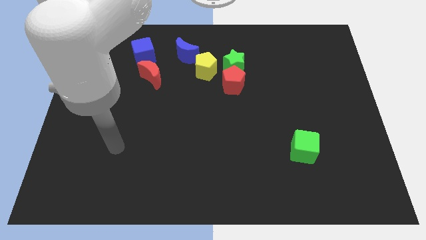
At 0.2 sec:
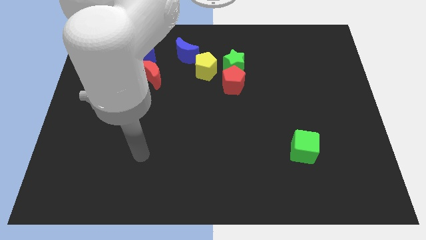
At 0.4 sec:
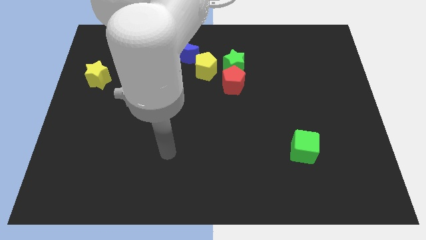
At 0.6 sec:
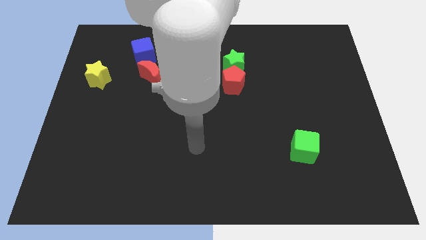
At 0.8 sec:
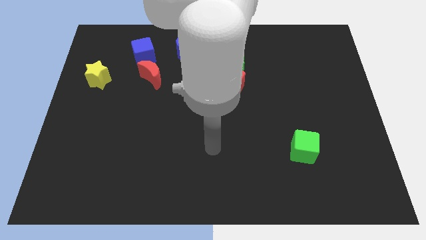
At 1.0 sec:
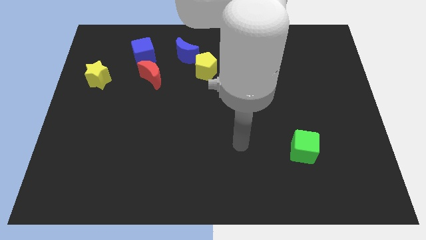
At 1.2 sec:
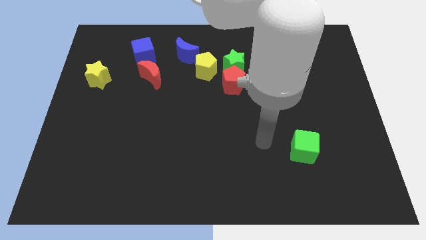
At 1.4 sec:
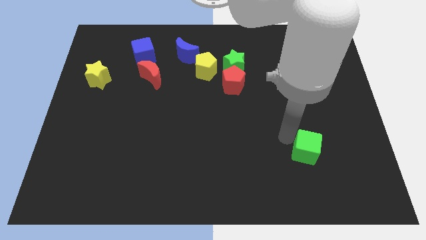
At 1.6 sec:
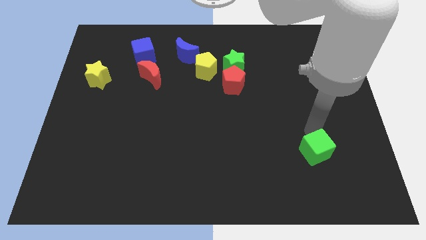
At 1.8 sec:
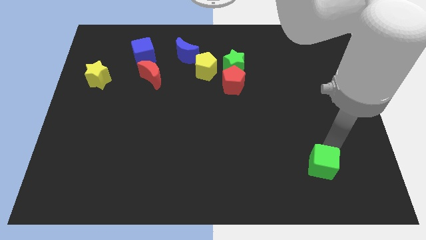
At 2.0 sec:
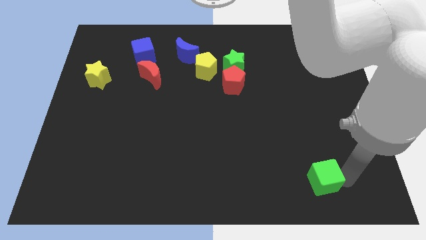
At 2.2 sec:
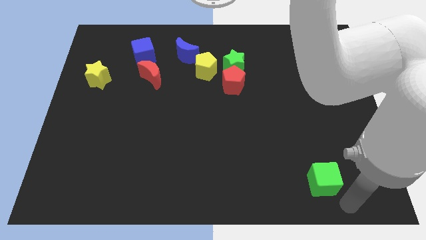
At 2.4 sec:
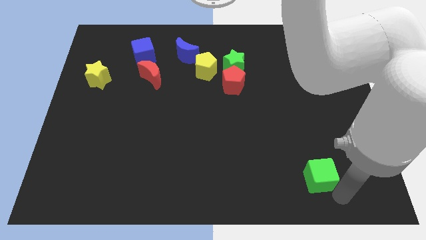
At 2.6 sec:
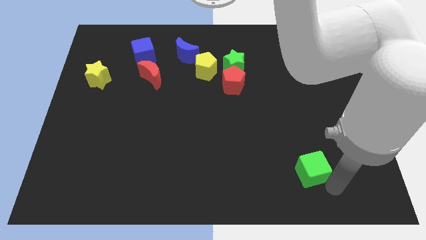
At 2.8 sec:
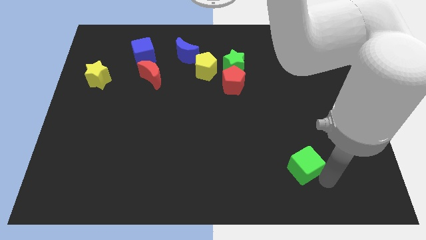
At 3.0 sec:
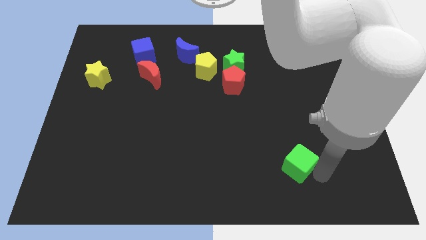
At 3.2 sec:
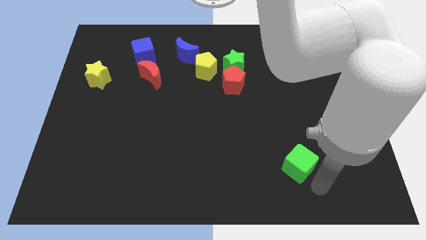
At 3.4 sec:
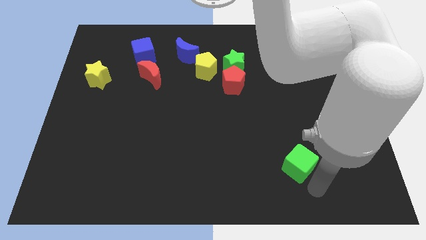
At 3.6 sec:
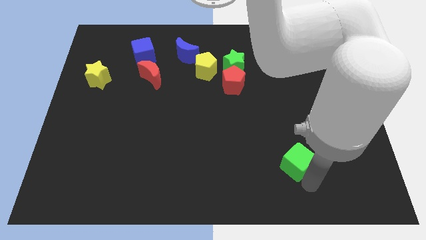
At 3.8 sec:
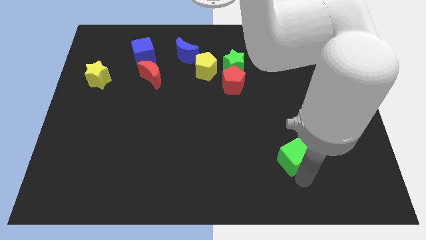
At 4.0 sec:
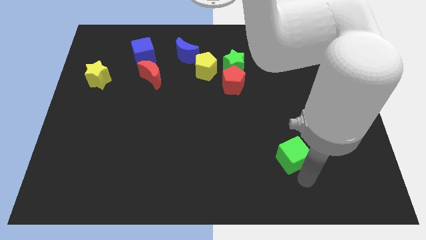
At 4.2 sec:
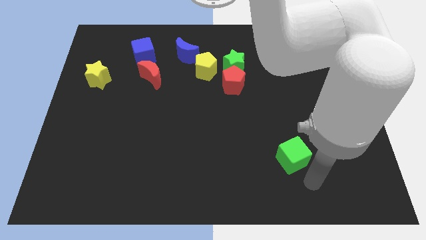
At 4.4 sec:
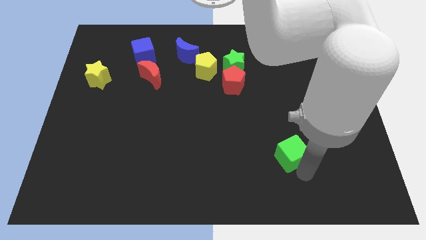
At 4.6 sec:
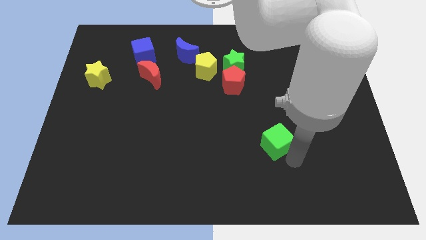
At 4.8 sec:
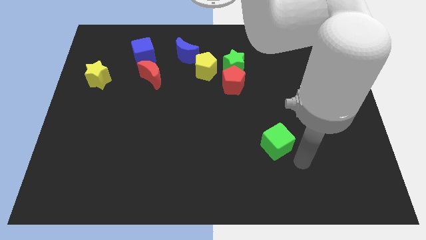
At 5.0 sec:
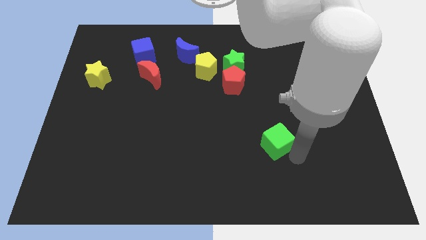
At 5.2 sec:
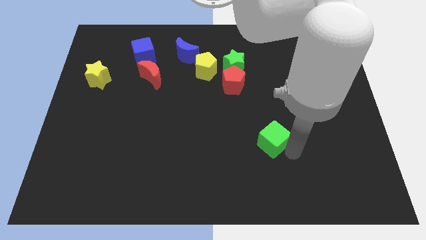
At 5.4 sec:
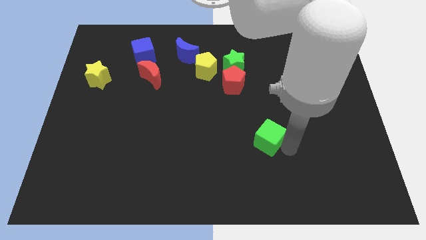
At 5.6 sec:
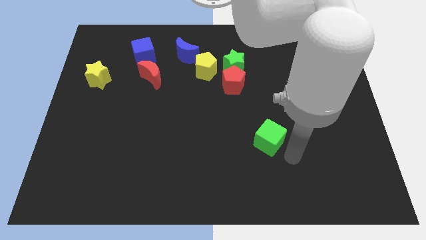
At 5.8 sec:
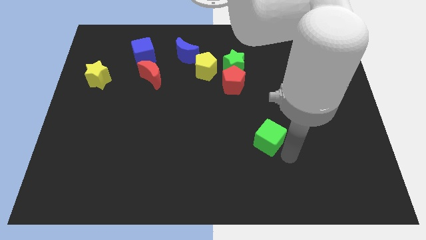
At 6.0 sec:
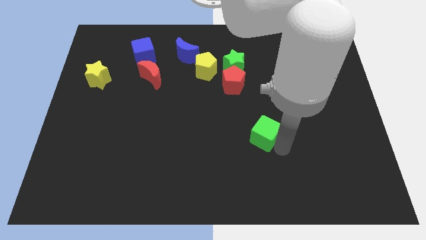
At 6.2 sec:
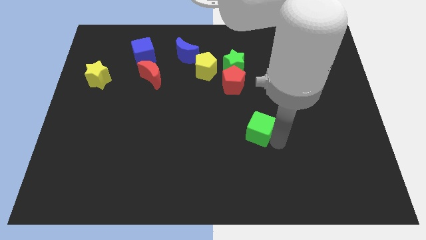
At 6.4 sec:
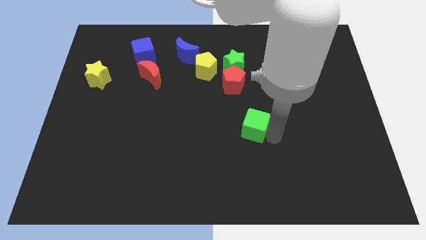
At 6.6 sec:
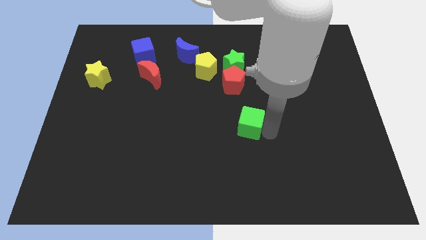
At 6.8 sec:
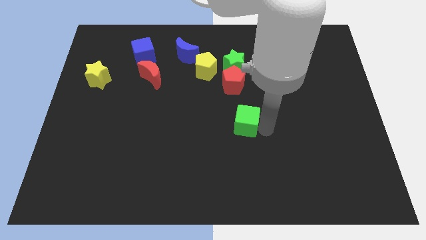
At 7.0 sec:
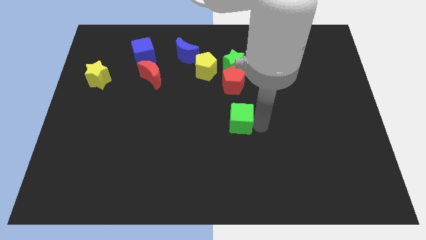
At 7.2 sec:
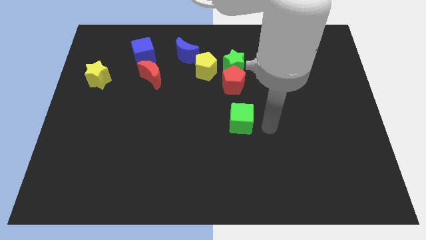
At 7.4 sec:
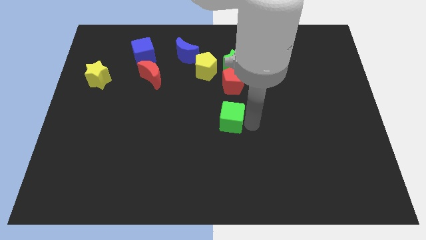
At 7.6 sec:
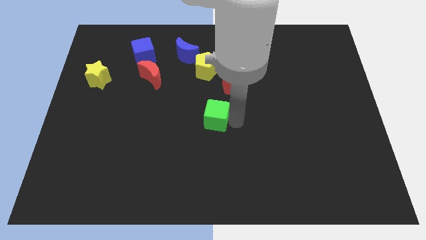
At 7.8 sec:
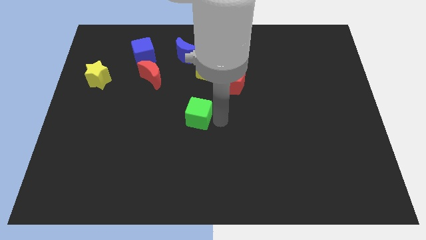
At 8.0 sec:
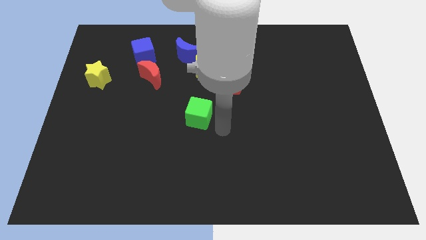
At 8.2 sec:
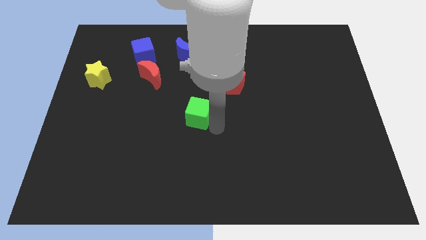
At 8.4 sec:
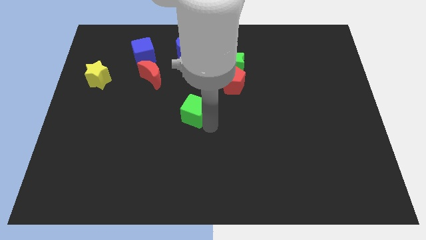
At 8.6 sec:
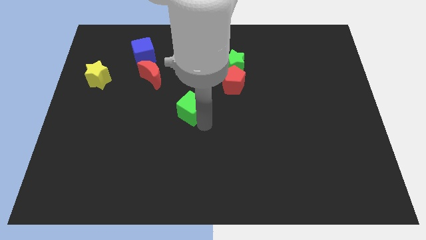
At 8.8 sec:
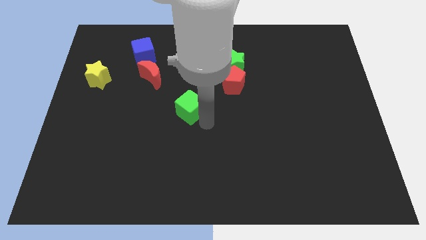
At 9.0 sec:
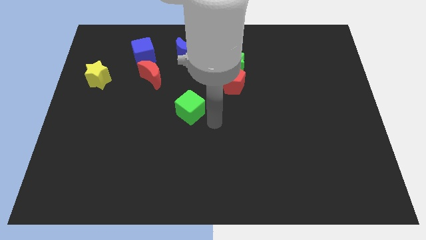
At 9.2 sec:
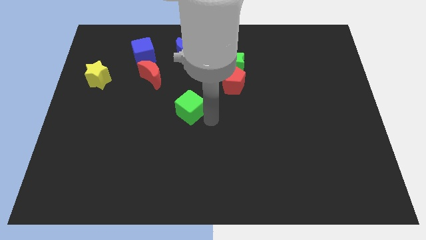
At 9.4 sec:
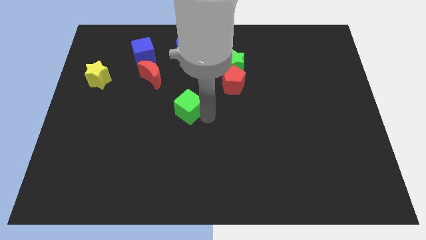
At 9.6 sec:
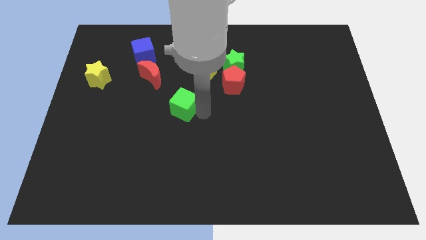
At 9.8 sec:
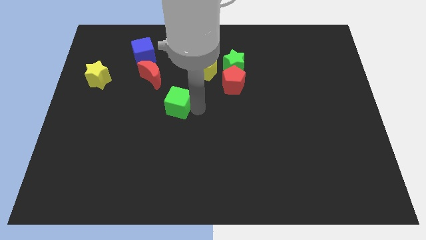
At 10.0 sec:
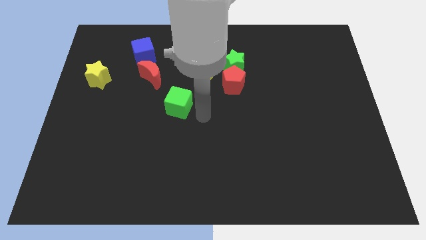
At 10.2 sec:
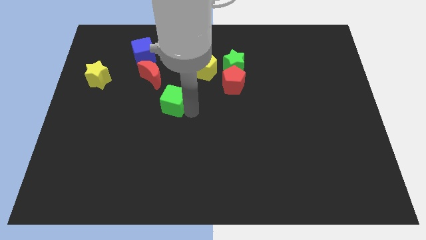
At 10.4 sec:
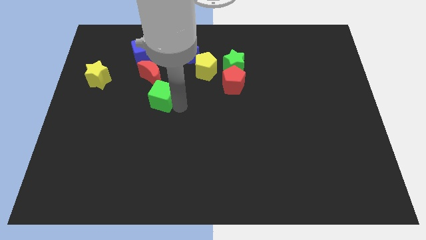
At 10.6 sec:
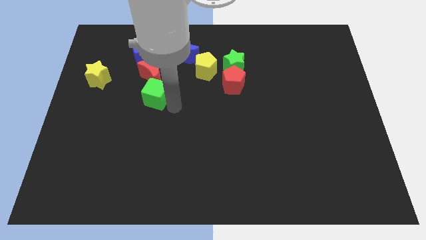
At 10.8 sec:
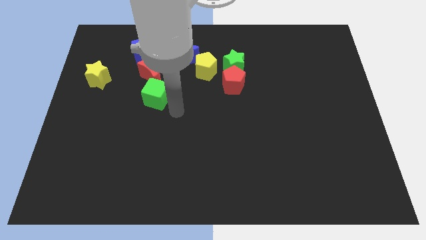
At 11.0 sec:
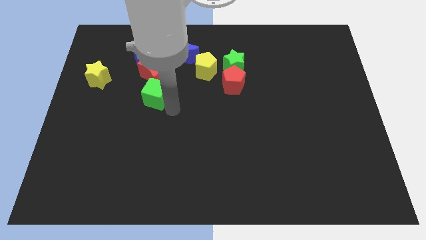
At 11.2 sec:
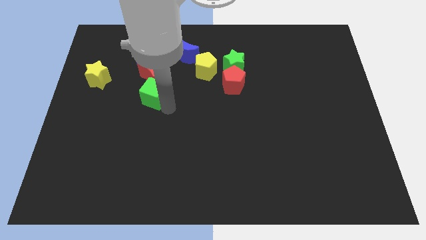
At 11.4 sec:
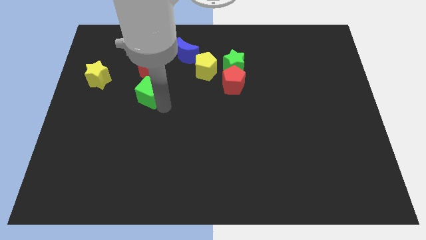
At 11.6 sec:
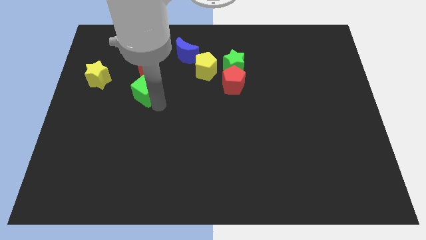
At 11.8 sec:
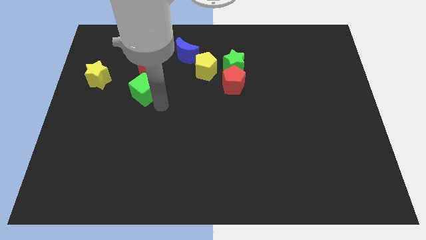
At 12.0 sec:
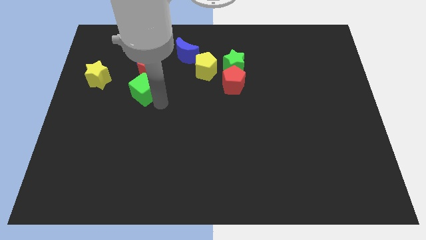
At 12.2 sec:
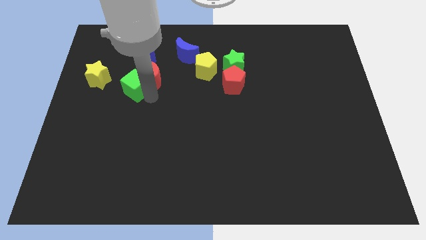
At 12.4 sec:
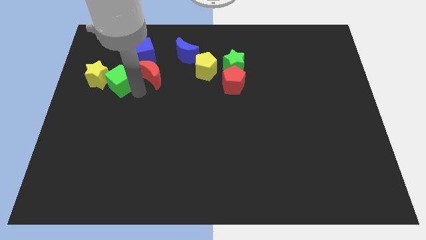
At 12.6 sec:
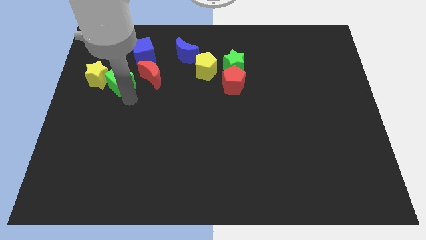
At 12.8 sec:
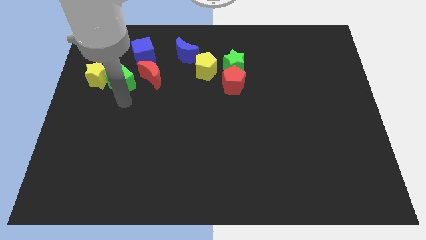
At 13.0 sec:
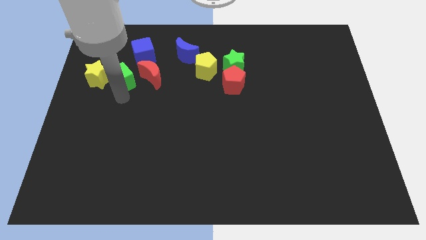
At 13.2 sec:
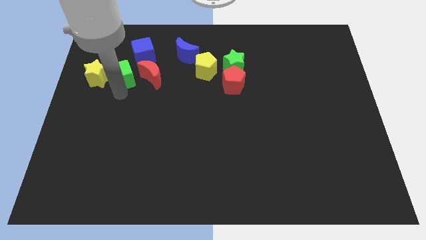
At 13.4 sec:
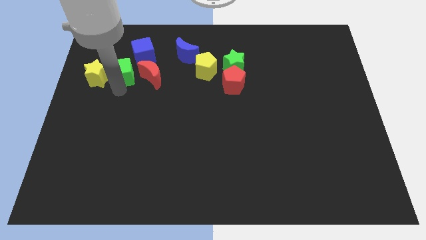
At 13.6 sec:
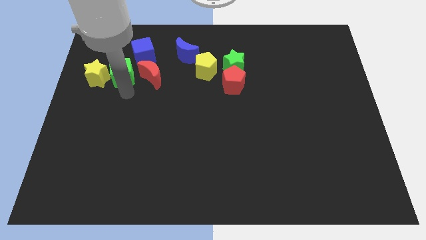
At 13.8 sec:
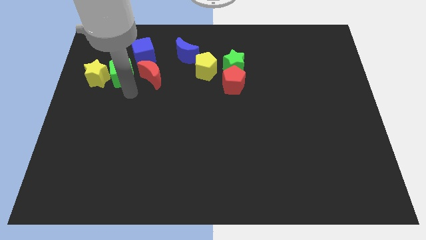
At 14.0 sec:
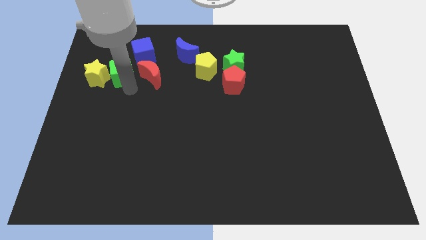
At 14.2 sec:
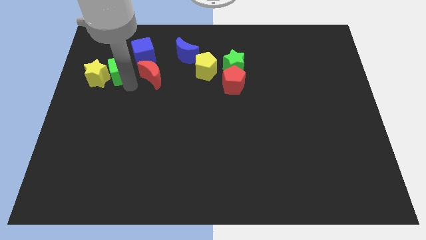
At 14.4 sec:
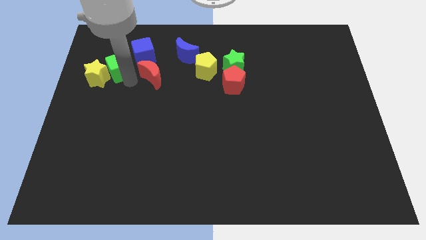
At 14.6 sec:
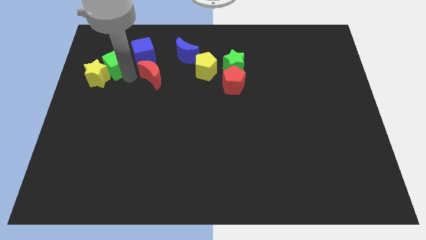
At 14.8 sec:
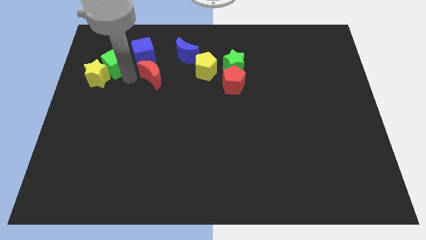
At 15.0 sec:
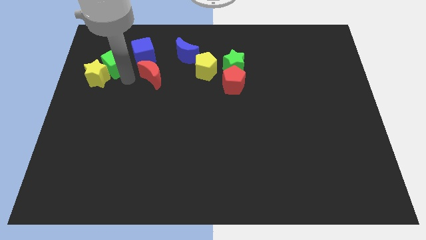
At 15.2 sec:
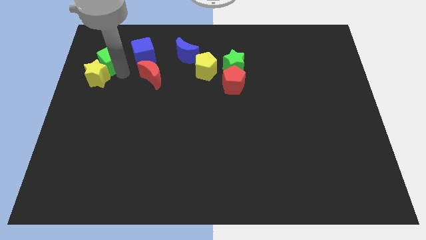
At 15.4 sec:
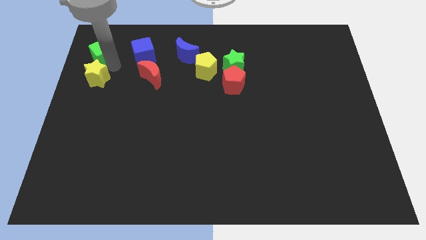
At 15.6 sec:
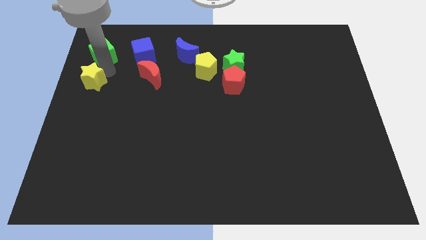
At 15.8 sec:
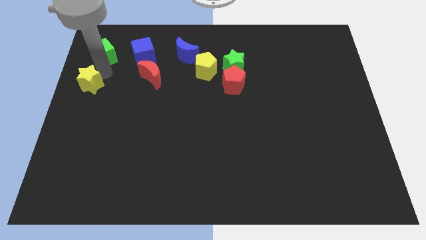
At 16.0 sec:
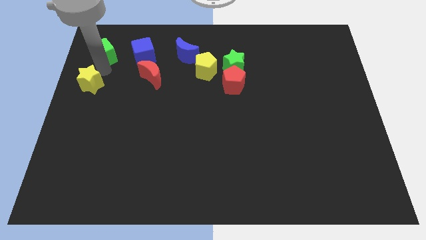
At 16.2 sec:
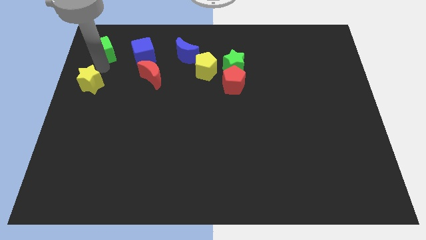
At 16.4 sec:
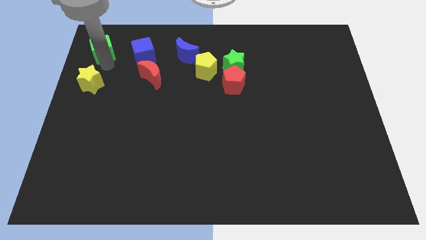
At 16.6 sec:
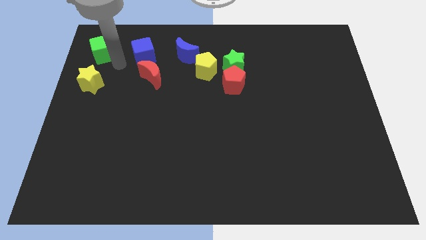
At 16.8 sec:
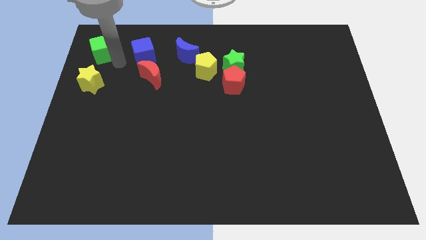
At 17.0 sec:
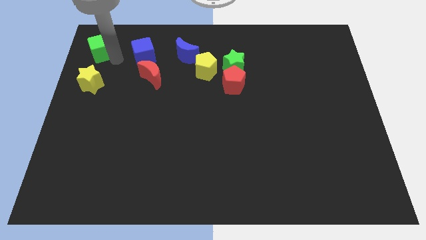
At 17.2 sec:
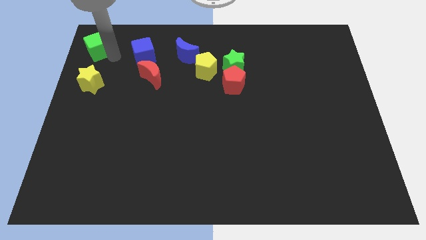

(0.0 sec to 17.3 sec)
move the green cube to the top left corner
